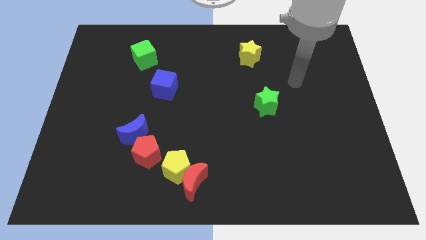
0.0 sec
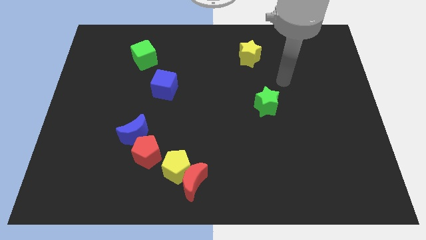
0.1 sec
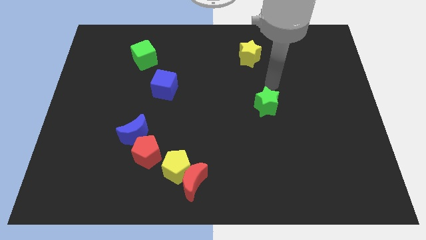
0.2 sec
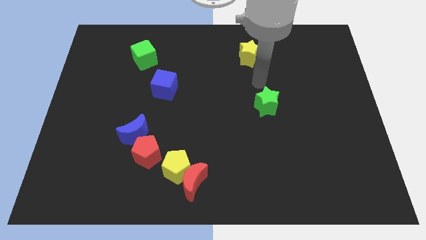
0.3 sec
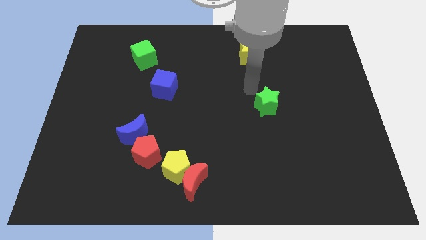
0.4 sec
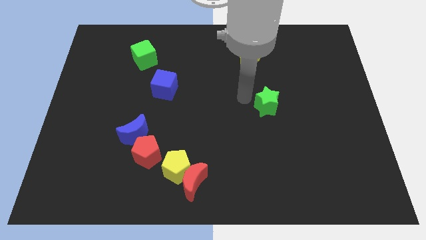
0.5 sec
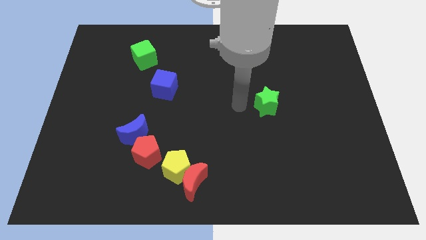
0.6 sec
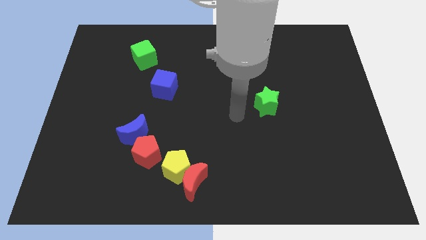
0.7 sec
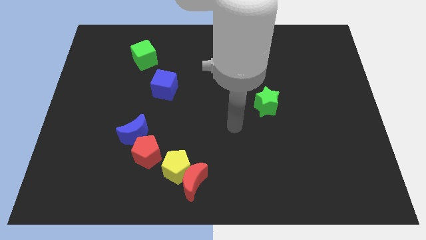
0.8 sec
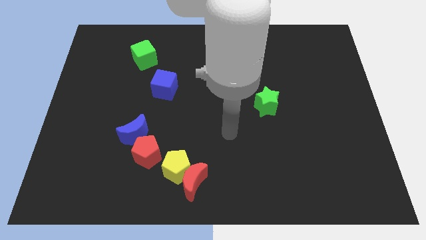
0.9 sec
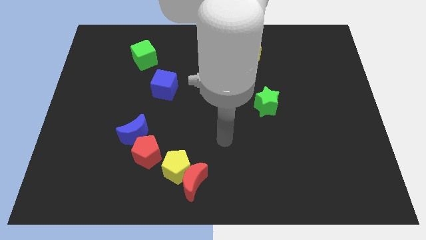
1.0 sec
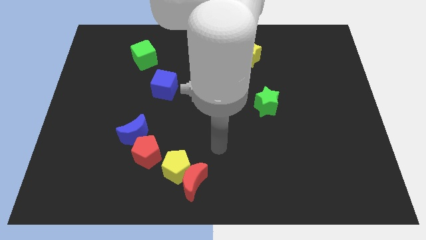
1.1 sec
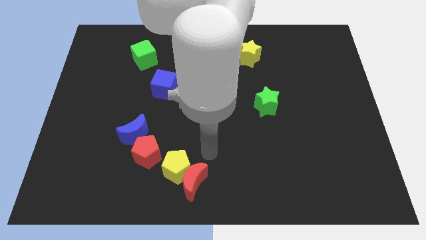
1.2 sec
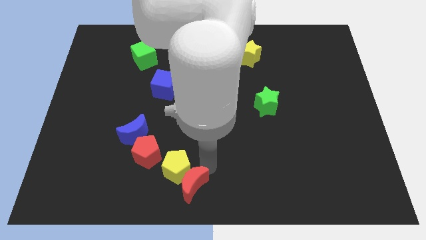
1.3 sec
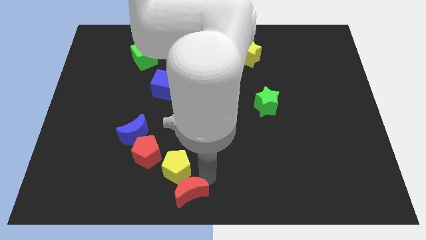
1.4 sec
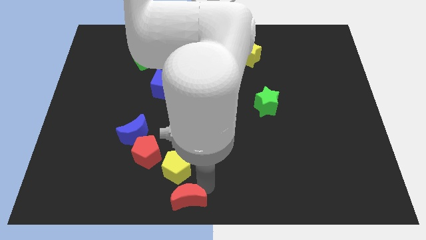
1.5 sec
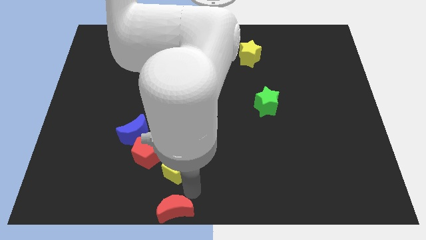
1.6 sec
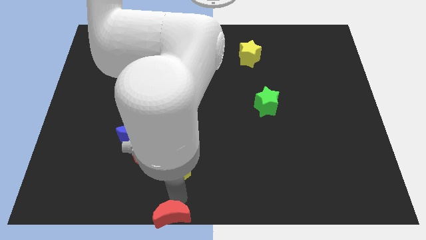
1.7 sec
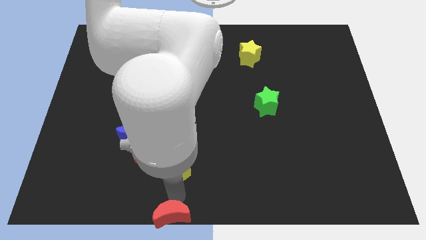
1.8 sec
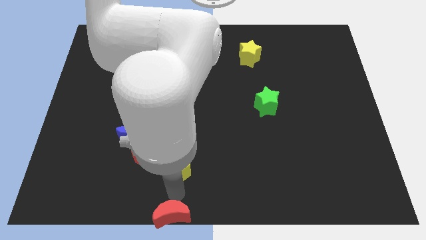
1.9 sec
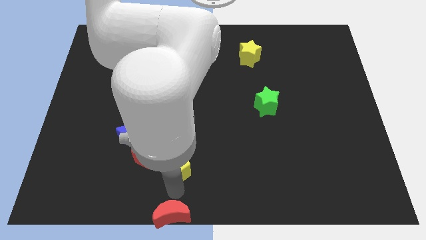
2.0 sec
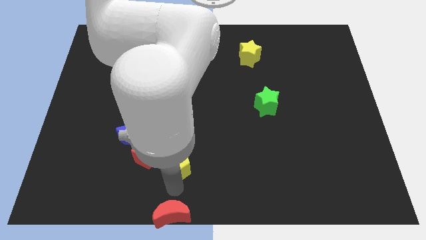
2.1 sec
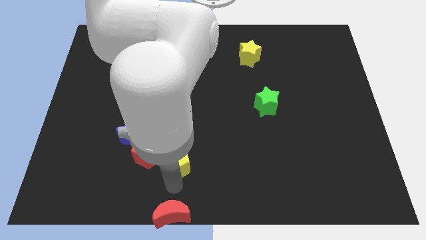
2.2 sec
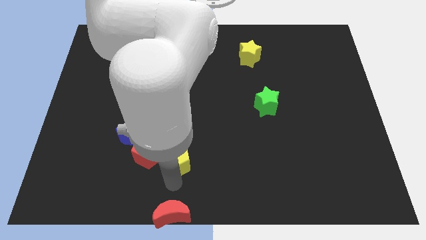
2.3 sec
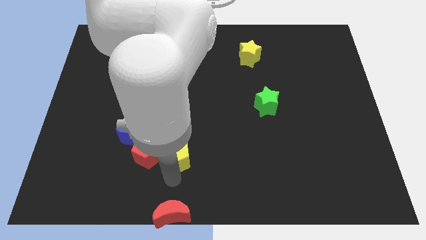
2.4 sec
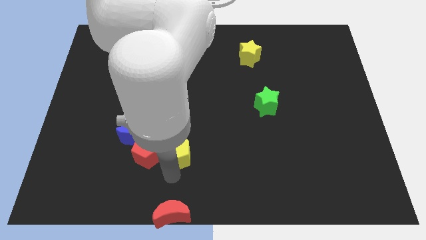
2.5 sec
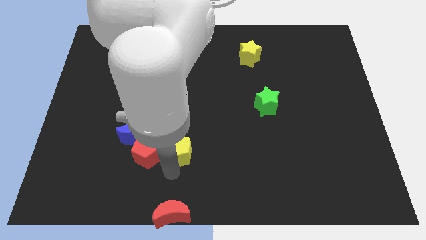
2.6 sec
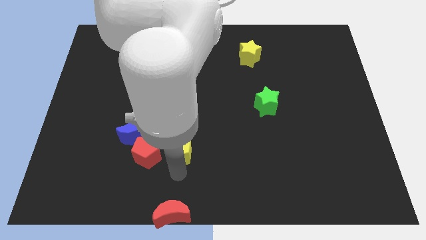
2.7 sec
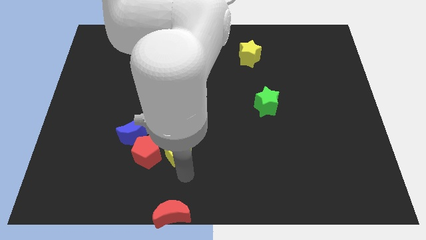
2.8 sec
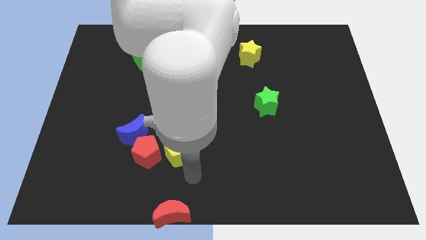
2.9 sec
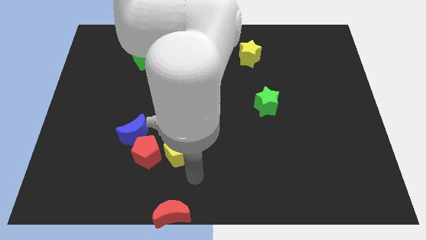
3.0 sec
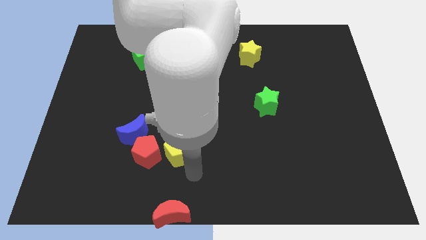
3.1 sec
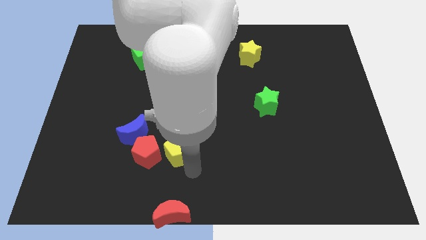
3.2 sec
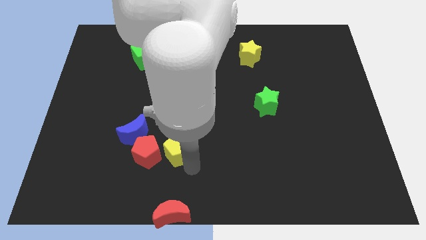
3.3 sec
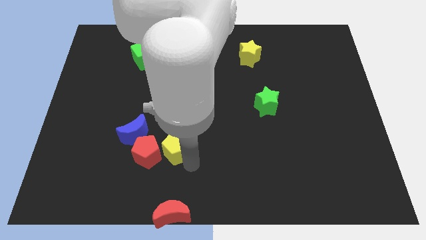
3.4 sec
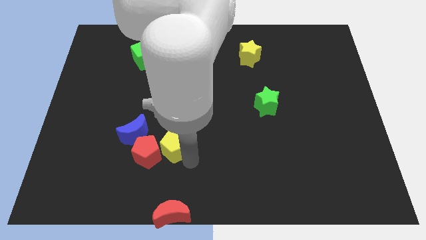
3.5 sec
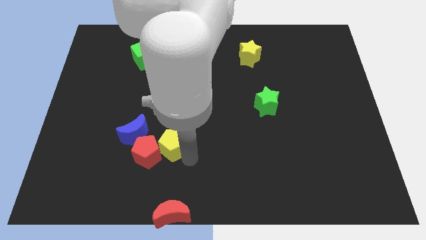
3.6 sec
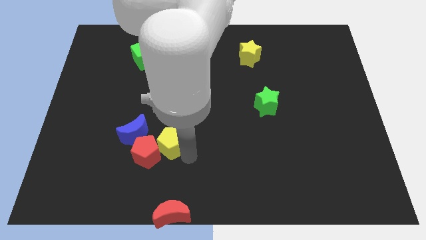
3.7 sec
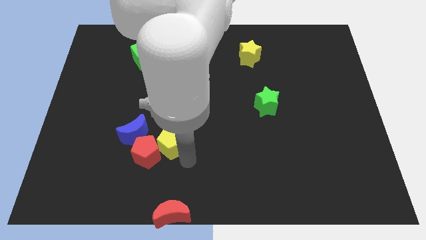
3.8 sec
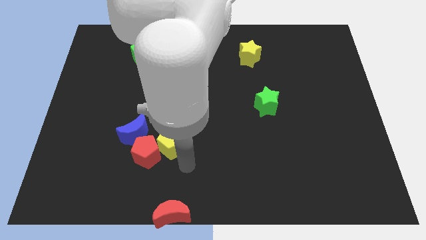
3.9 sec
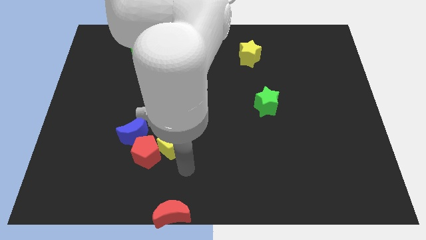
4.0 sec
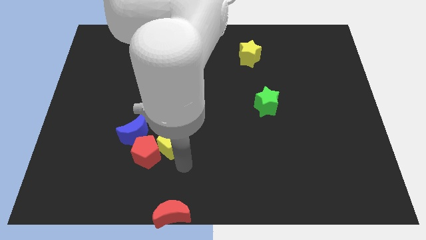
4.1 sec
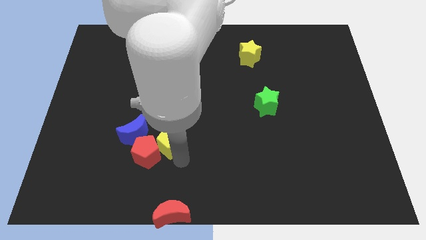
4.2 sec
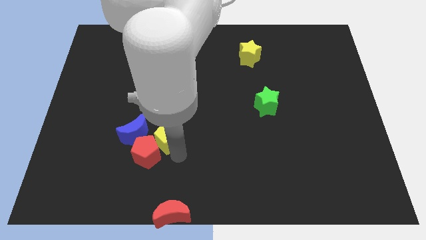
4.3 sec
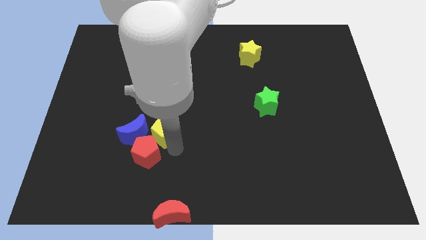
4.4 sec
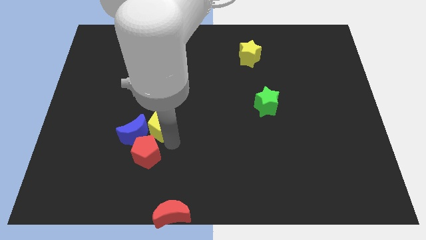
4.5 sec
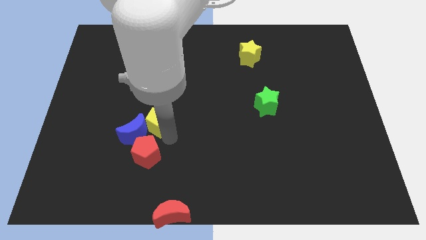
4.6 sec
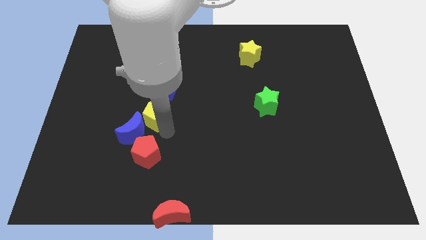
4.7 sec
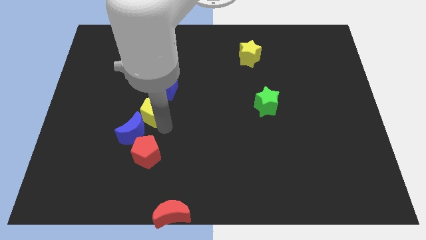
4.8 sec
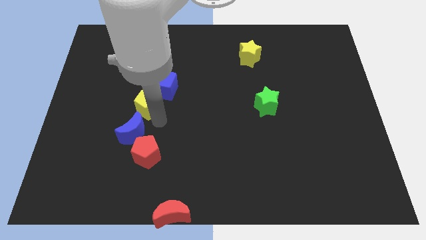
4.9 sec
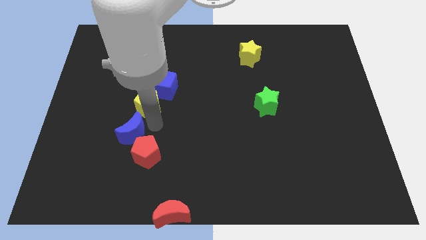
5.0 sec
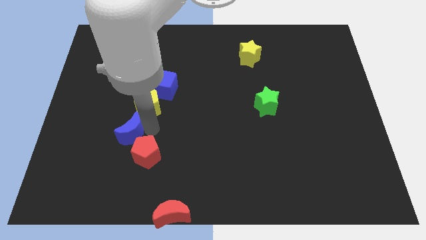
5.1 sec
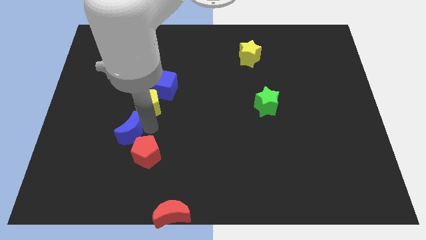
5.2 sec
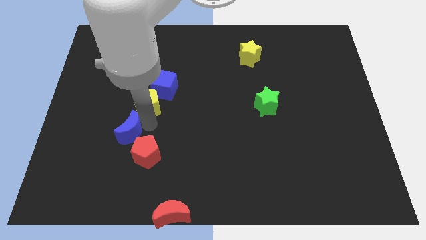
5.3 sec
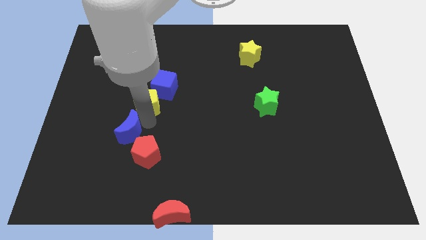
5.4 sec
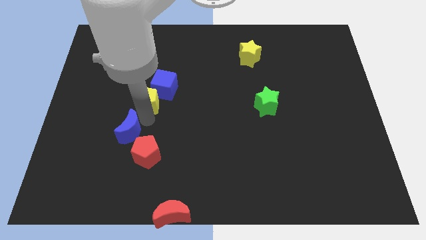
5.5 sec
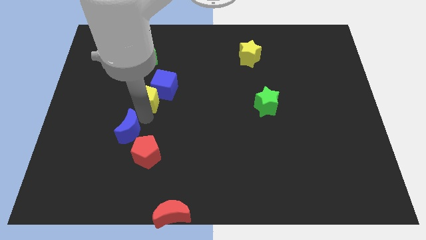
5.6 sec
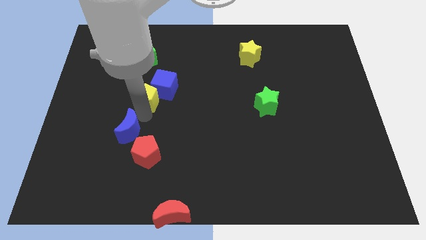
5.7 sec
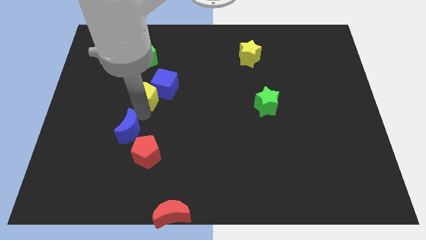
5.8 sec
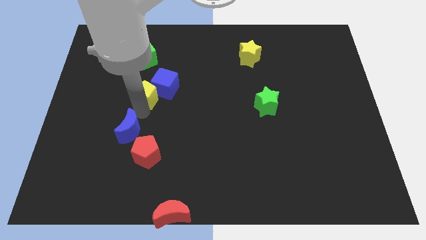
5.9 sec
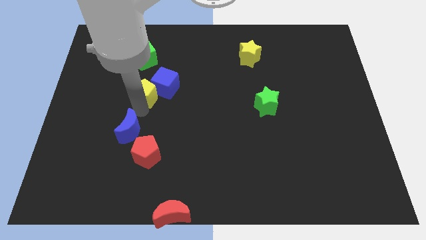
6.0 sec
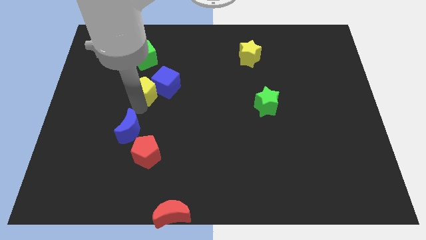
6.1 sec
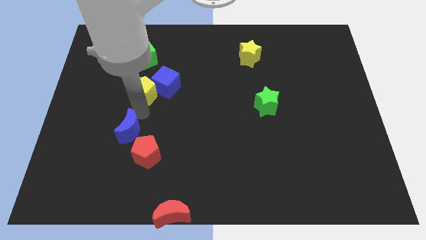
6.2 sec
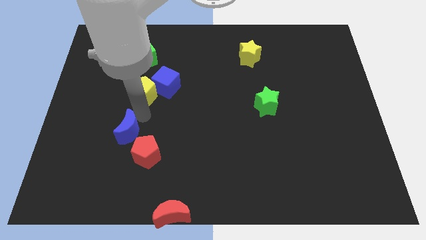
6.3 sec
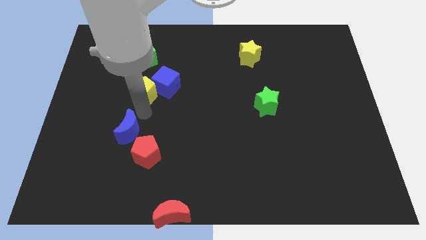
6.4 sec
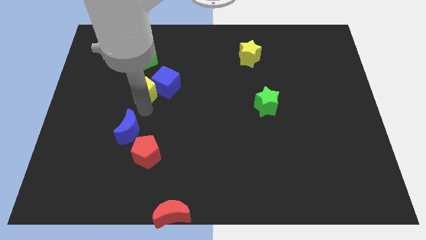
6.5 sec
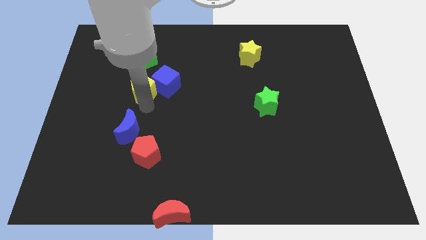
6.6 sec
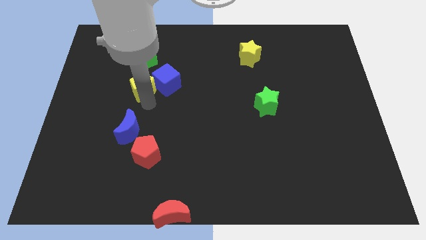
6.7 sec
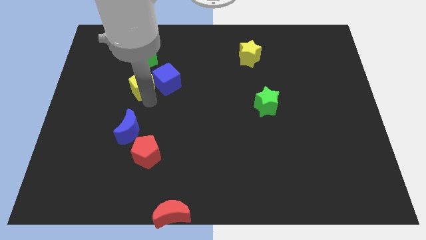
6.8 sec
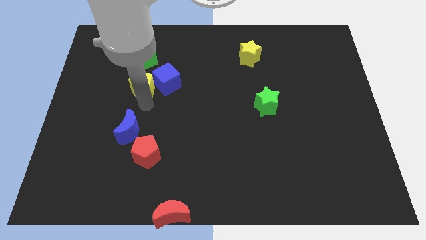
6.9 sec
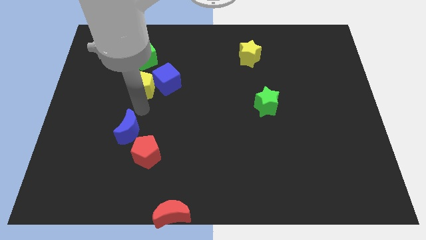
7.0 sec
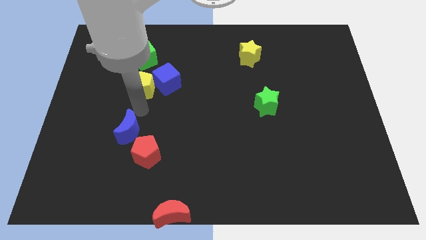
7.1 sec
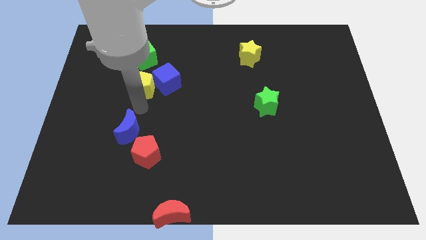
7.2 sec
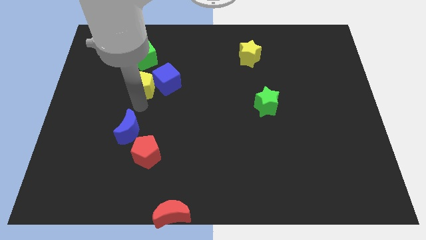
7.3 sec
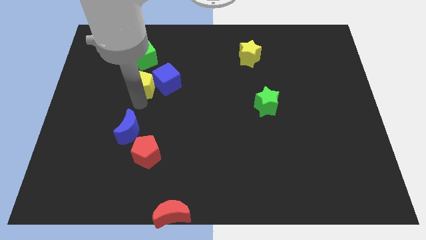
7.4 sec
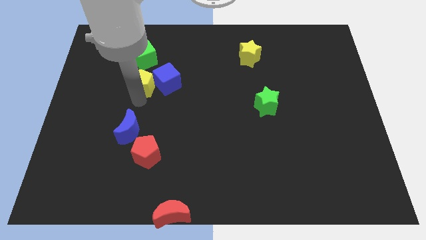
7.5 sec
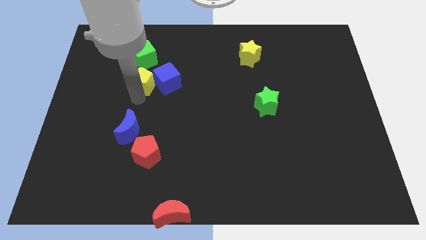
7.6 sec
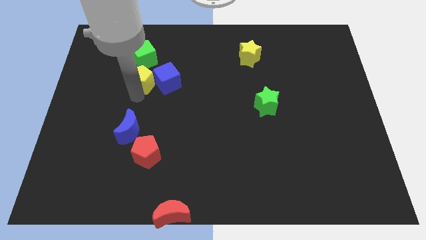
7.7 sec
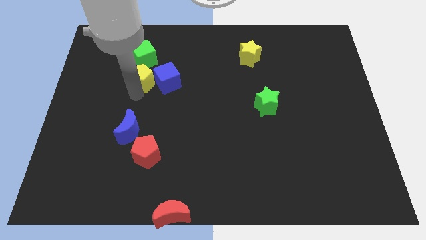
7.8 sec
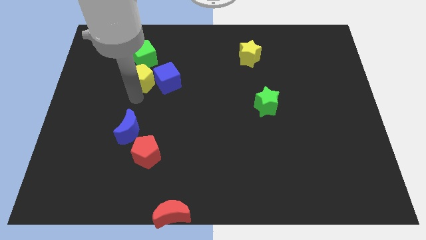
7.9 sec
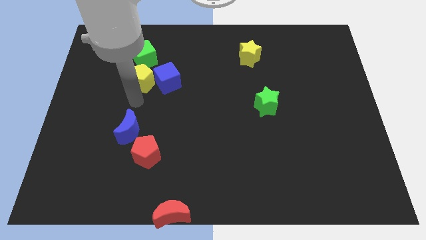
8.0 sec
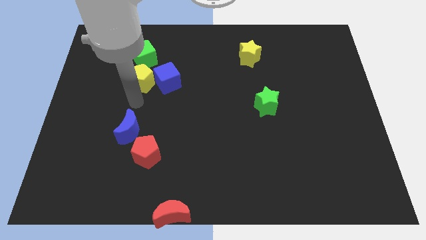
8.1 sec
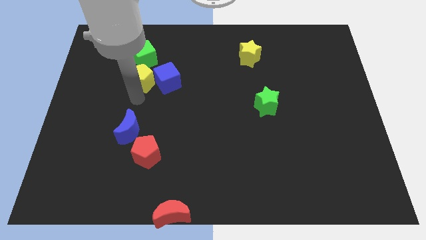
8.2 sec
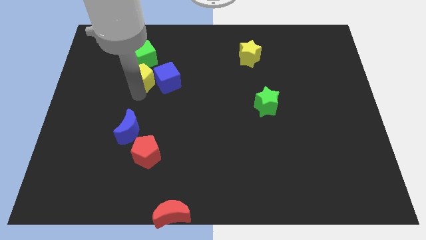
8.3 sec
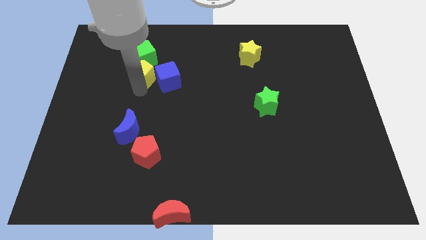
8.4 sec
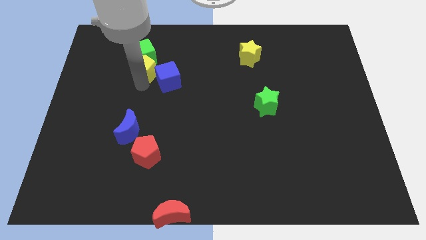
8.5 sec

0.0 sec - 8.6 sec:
slide the yellow pentagon to the green cube
